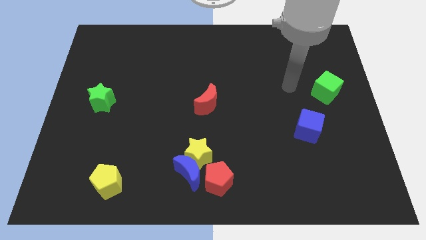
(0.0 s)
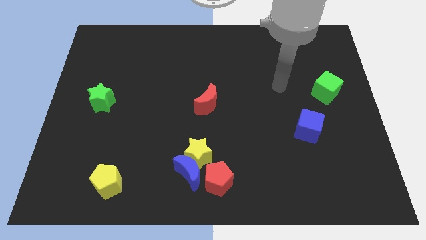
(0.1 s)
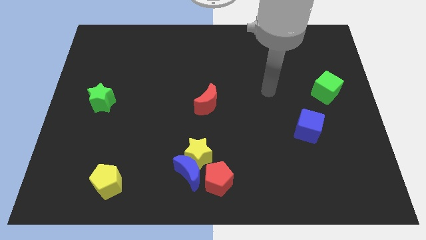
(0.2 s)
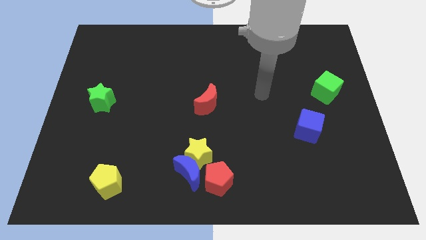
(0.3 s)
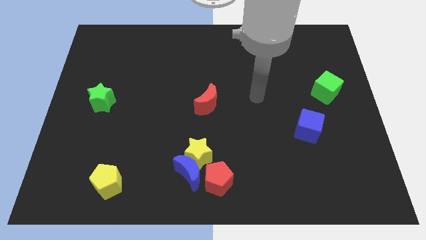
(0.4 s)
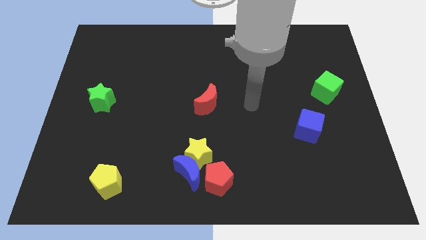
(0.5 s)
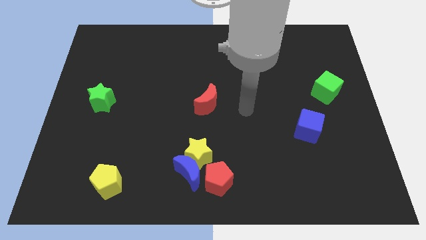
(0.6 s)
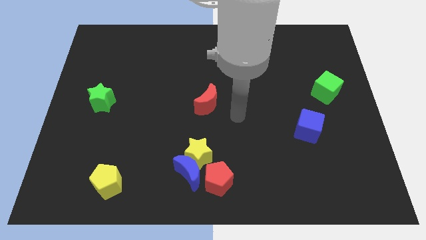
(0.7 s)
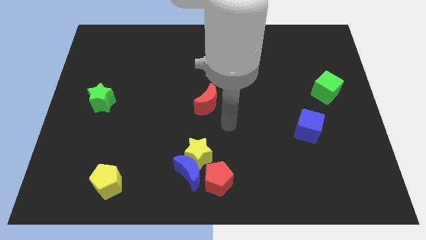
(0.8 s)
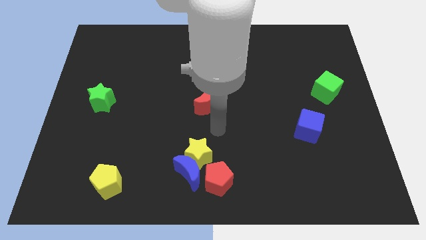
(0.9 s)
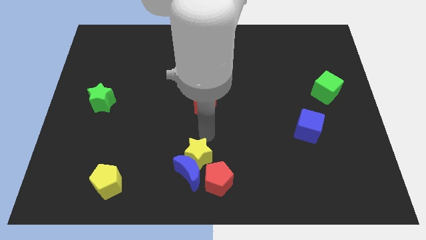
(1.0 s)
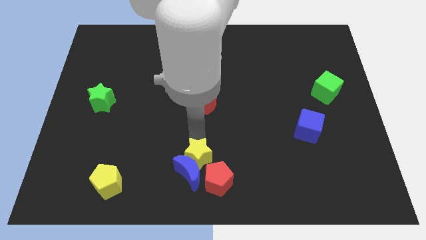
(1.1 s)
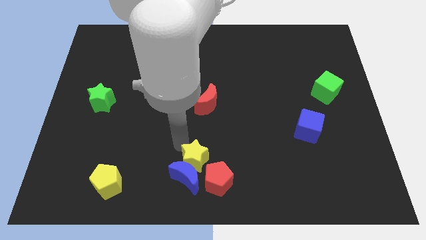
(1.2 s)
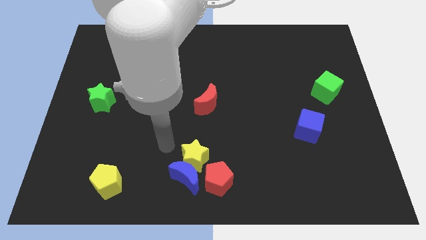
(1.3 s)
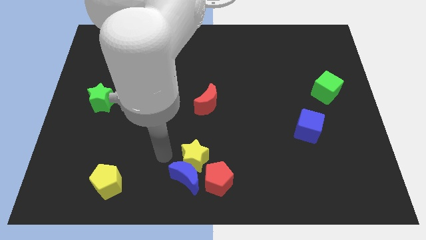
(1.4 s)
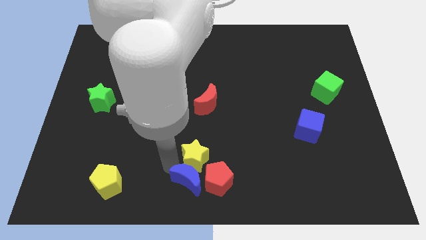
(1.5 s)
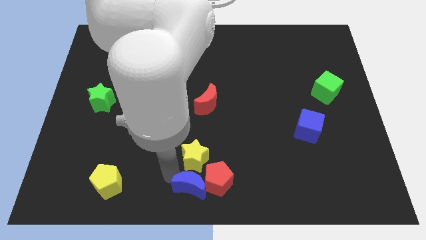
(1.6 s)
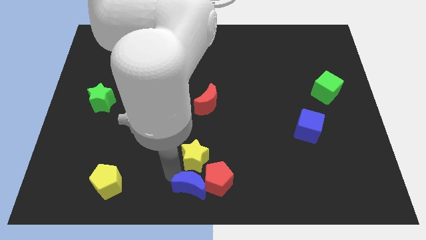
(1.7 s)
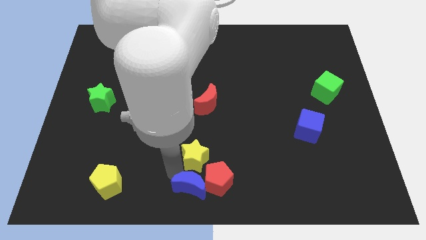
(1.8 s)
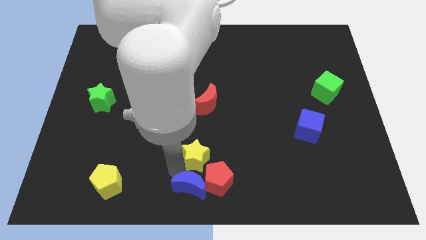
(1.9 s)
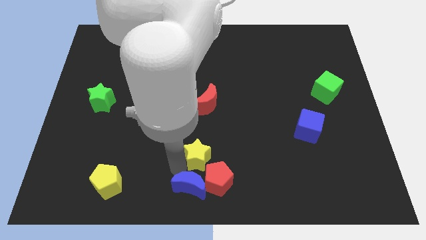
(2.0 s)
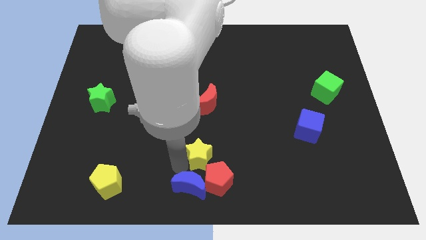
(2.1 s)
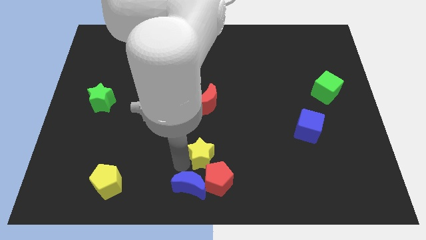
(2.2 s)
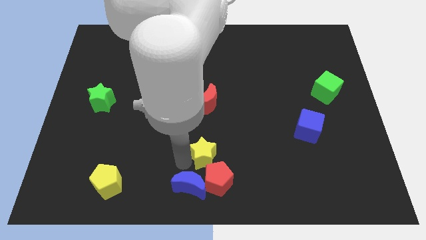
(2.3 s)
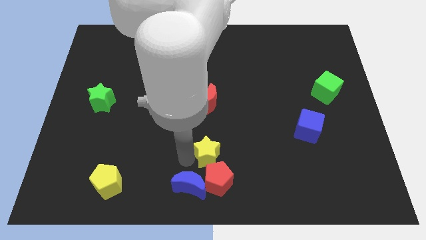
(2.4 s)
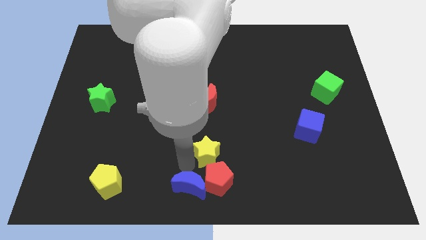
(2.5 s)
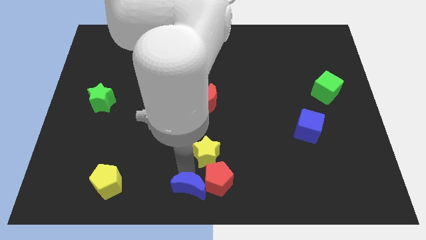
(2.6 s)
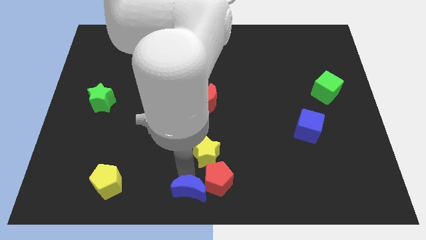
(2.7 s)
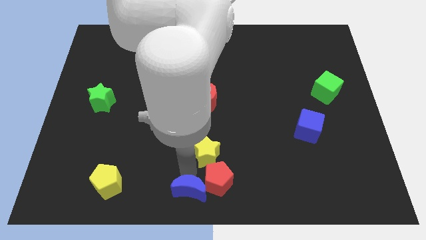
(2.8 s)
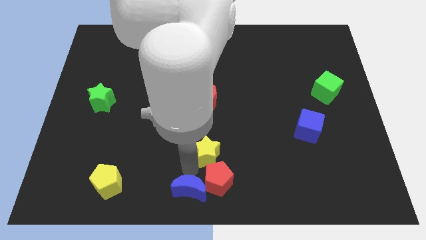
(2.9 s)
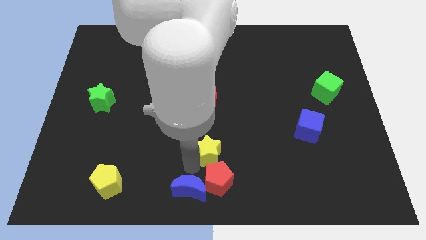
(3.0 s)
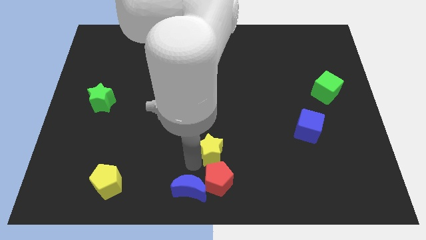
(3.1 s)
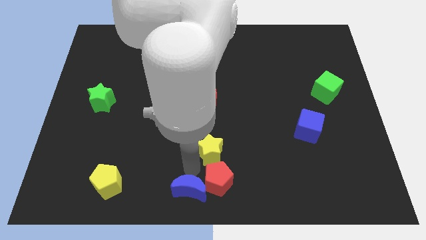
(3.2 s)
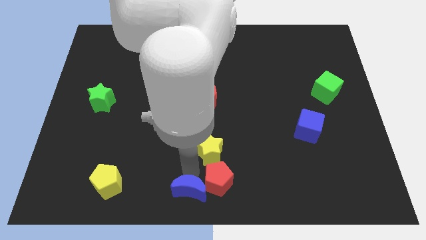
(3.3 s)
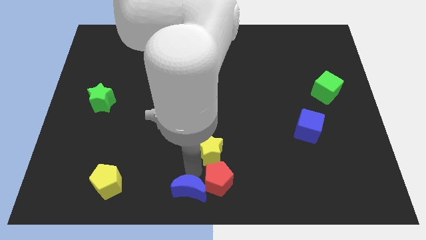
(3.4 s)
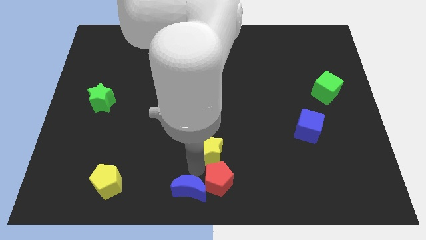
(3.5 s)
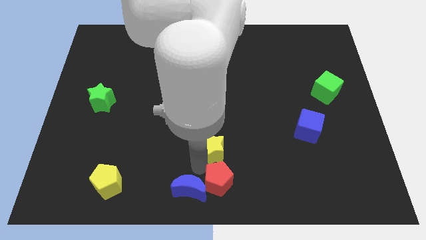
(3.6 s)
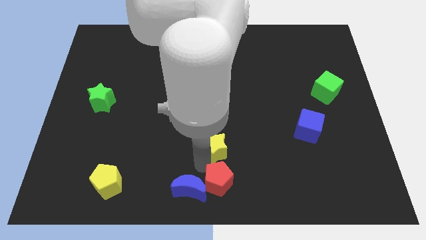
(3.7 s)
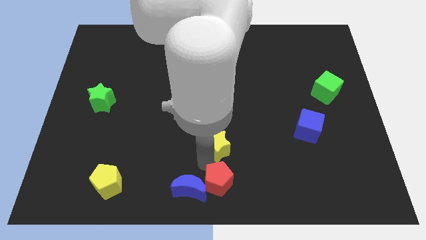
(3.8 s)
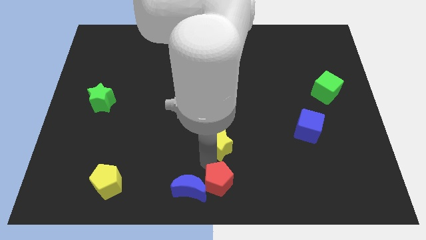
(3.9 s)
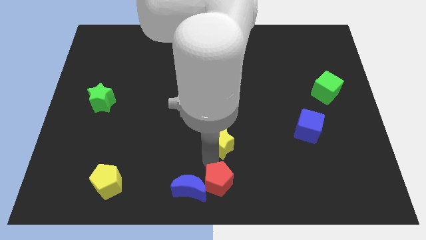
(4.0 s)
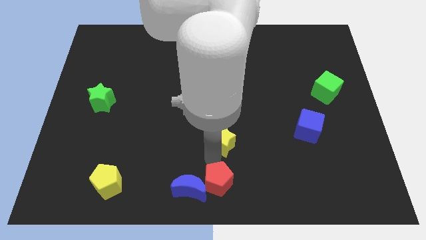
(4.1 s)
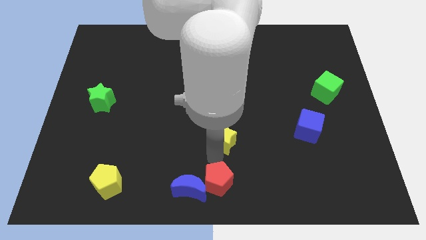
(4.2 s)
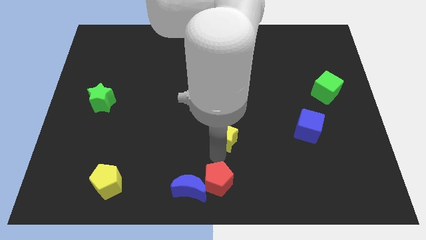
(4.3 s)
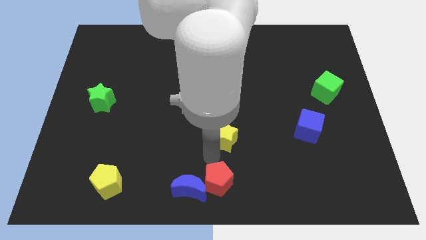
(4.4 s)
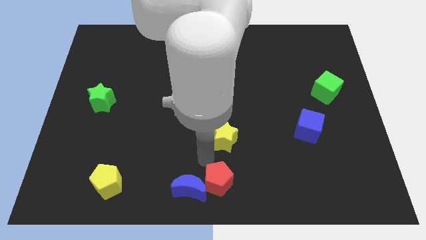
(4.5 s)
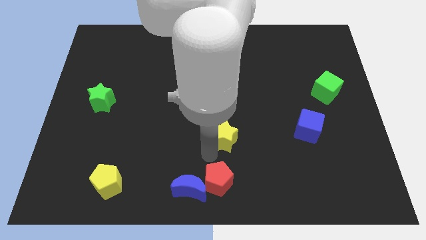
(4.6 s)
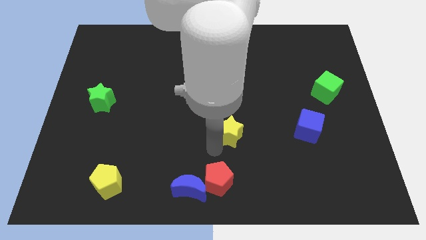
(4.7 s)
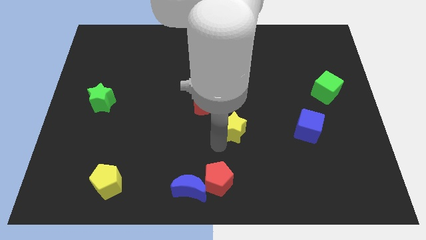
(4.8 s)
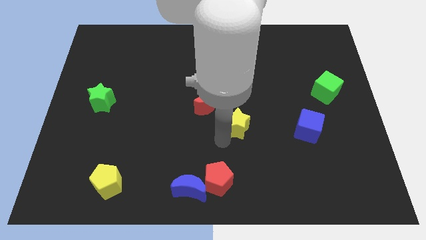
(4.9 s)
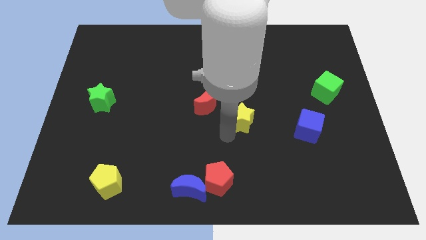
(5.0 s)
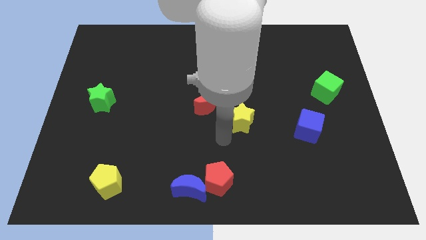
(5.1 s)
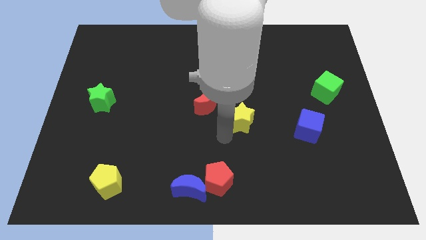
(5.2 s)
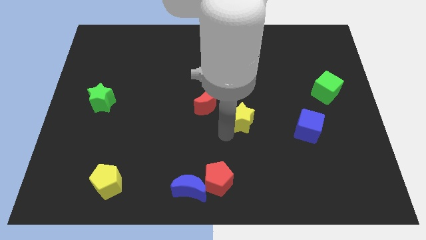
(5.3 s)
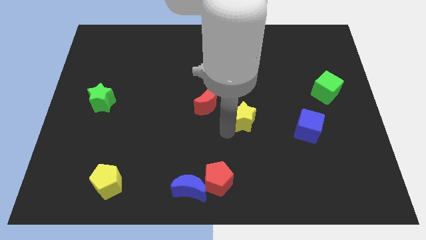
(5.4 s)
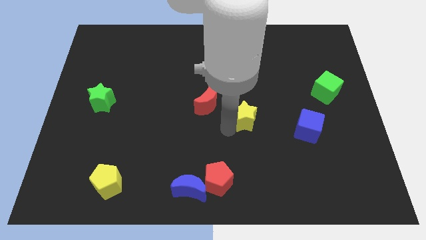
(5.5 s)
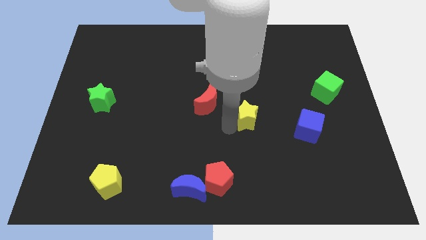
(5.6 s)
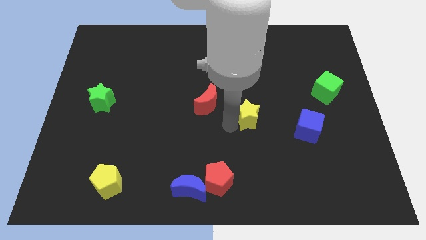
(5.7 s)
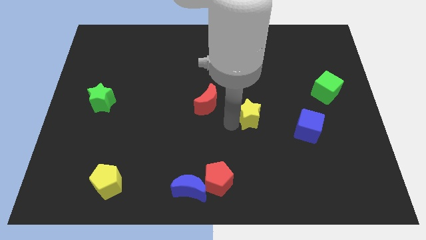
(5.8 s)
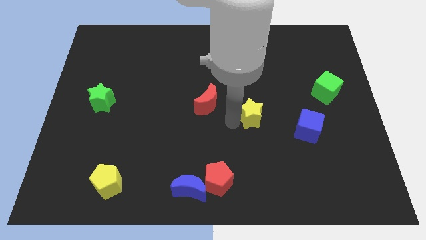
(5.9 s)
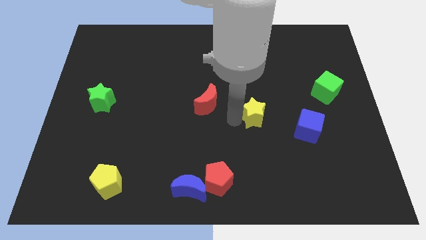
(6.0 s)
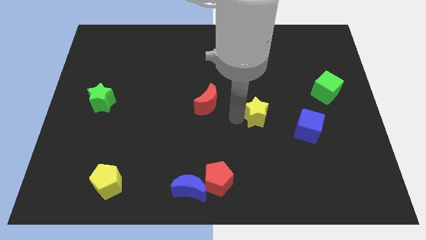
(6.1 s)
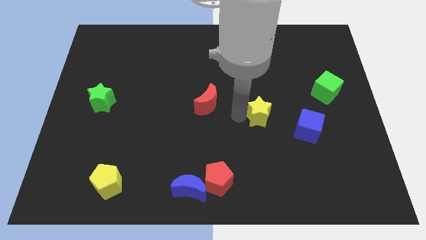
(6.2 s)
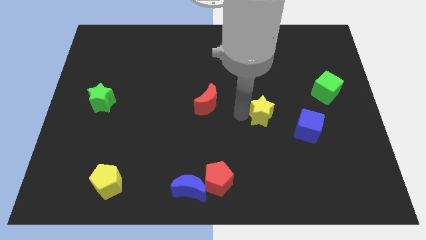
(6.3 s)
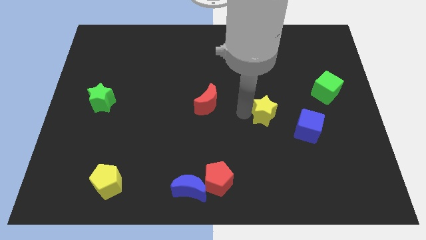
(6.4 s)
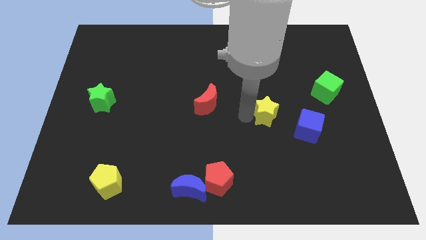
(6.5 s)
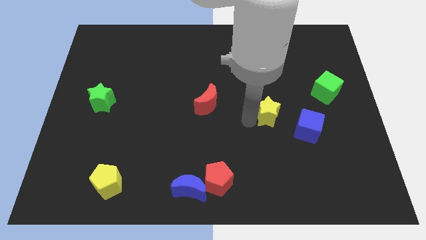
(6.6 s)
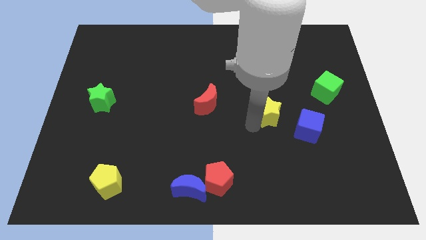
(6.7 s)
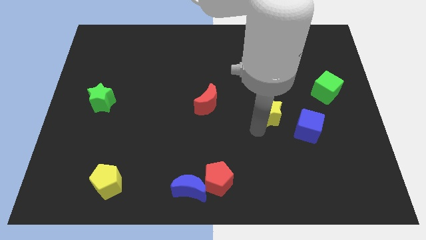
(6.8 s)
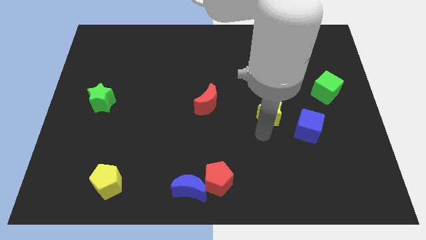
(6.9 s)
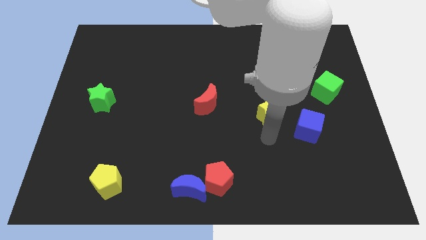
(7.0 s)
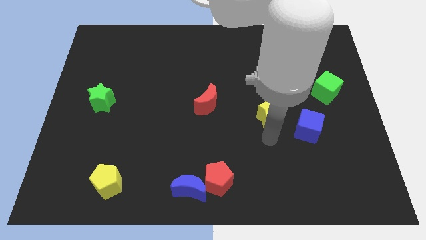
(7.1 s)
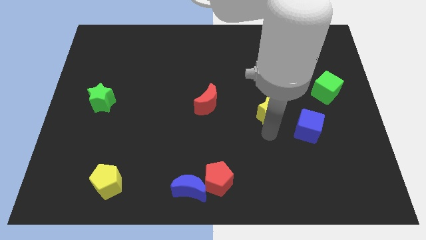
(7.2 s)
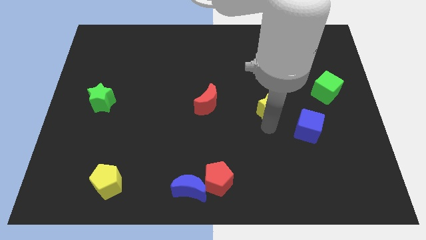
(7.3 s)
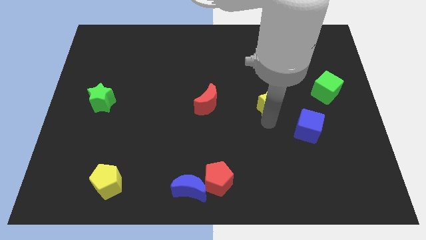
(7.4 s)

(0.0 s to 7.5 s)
push the yellow star upwards and to the right diagonally

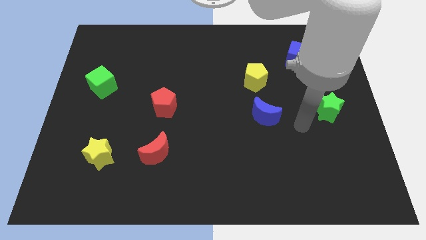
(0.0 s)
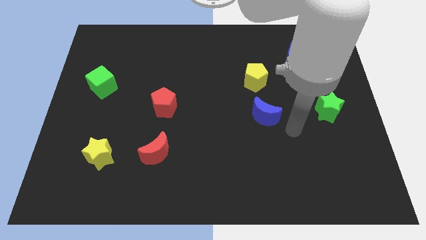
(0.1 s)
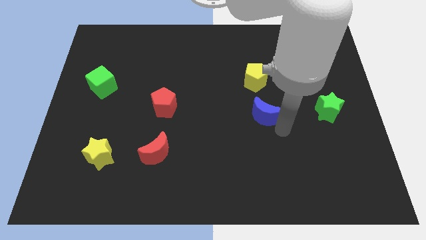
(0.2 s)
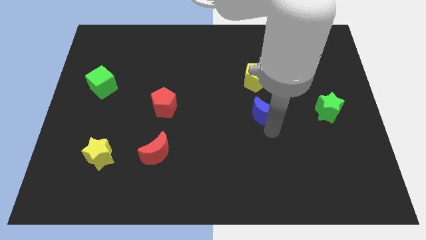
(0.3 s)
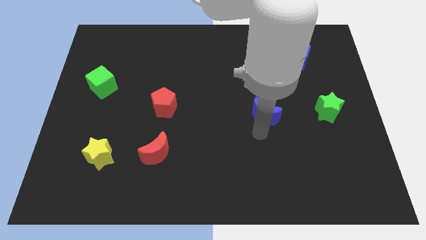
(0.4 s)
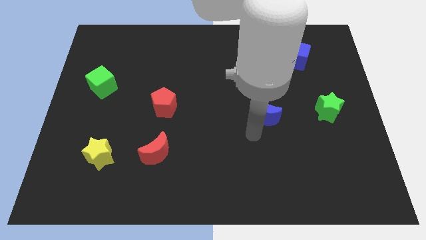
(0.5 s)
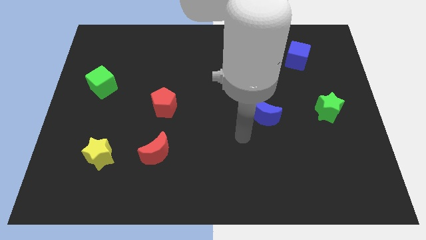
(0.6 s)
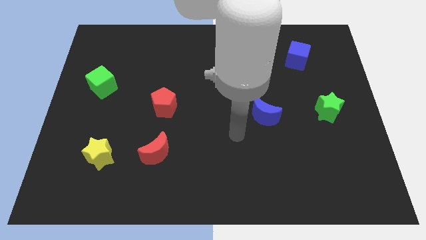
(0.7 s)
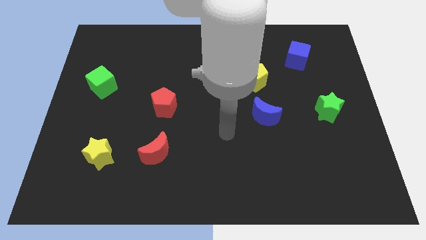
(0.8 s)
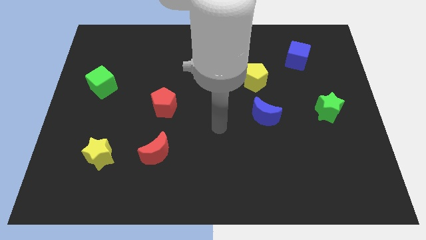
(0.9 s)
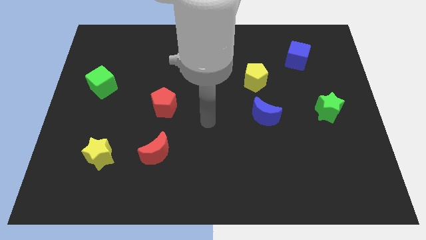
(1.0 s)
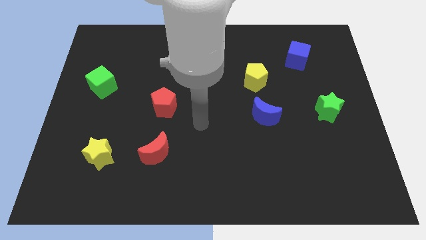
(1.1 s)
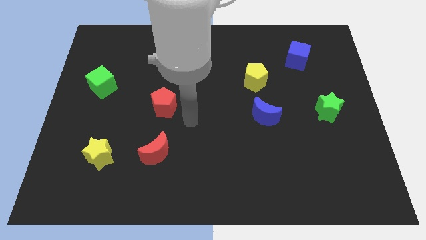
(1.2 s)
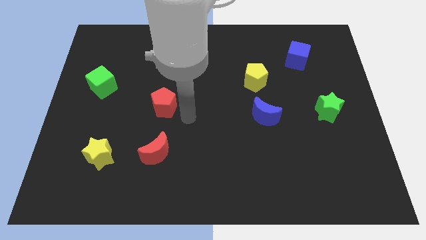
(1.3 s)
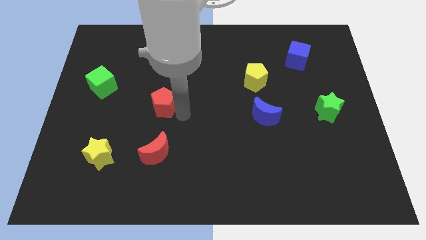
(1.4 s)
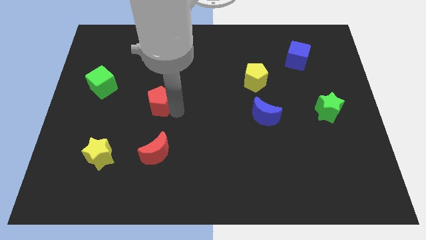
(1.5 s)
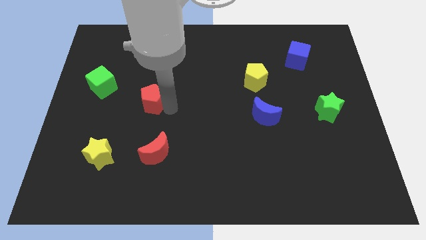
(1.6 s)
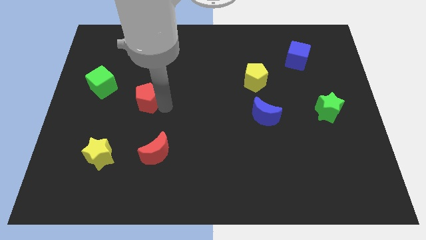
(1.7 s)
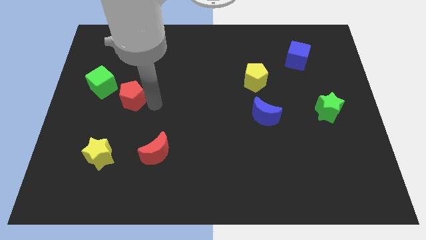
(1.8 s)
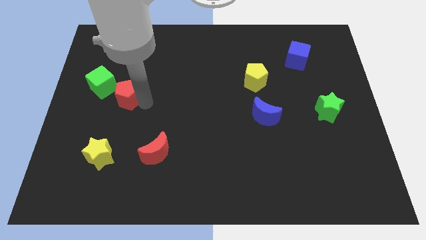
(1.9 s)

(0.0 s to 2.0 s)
slightly move the red pentagon upwards and left
